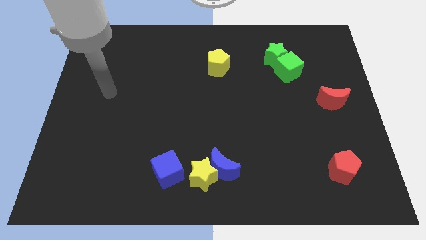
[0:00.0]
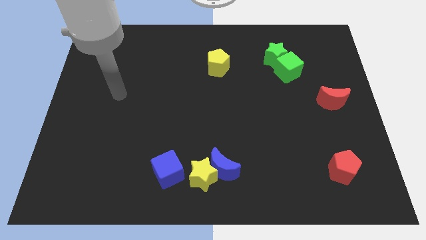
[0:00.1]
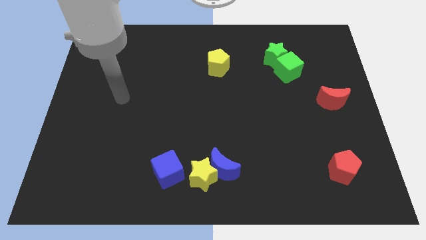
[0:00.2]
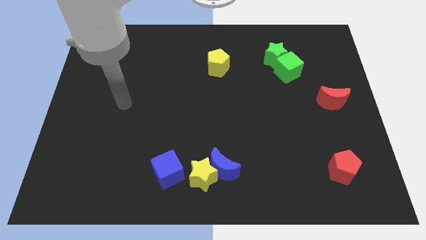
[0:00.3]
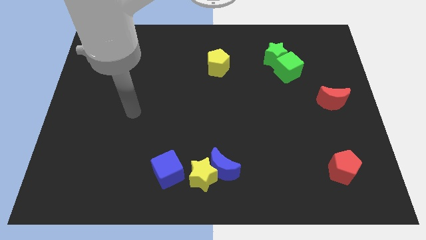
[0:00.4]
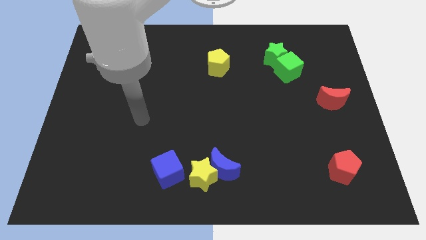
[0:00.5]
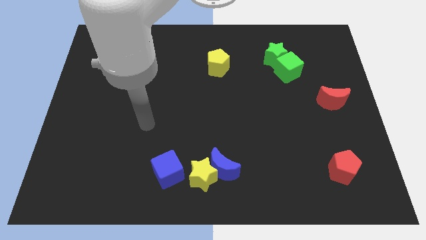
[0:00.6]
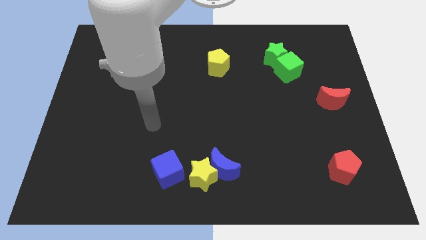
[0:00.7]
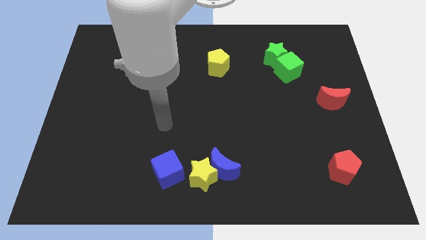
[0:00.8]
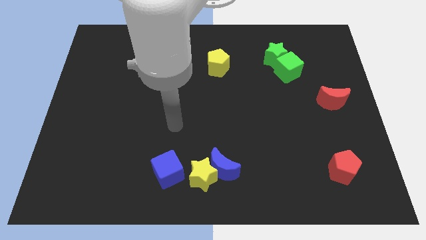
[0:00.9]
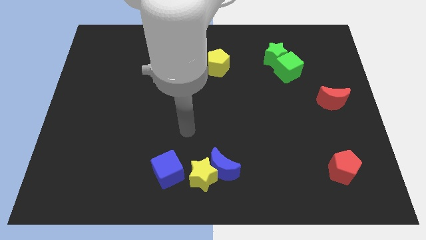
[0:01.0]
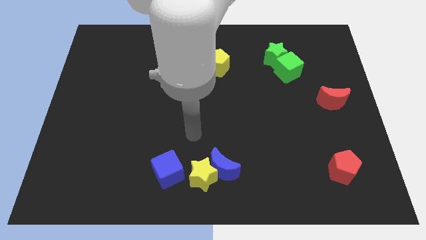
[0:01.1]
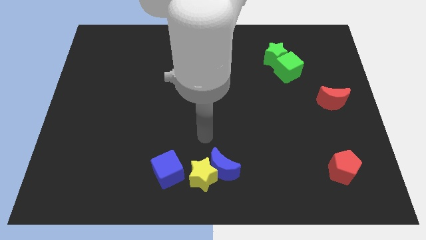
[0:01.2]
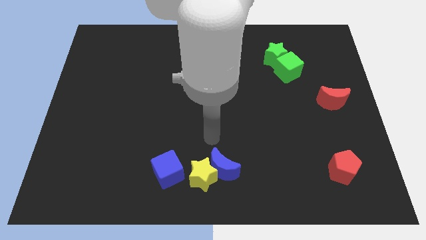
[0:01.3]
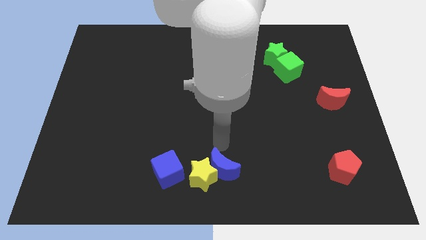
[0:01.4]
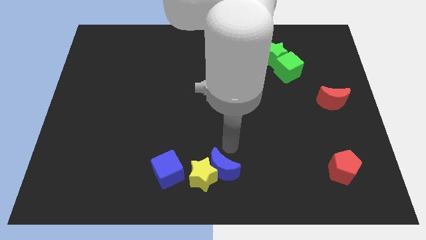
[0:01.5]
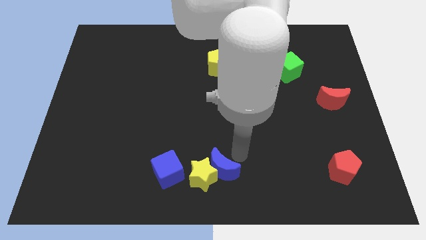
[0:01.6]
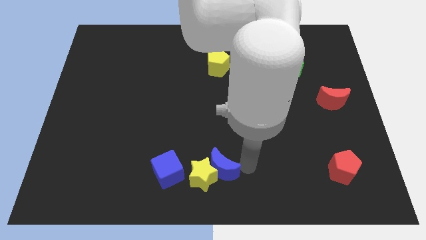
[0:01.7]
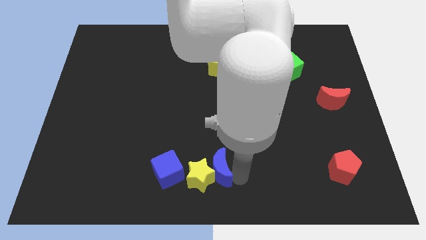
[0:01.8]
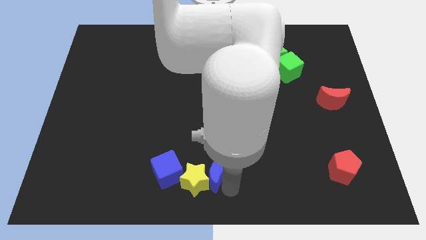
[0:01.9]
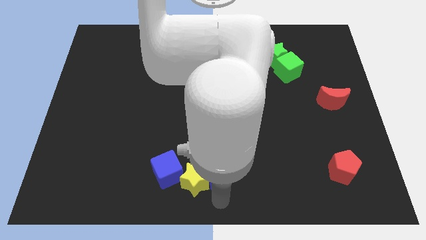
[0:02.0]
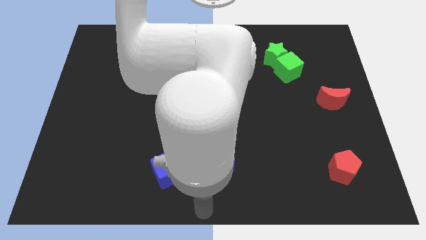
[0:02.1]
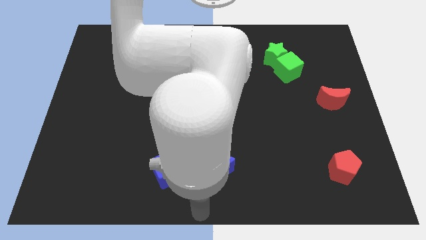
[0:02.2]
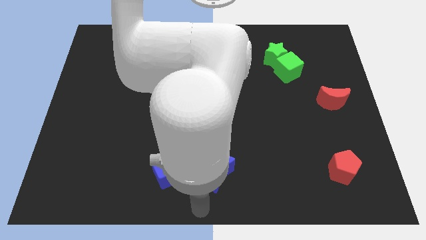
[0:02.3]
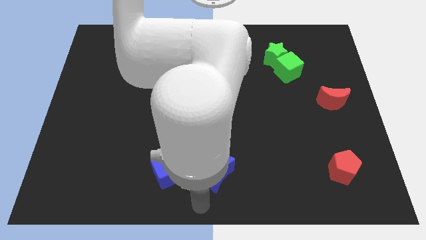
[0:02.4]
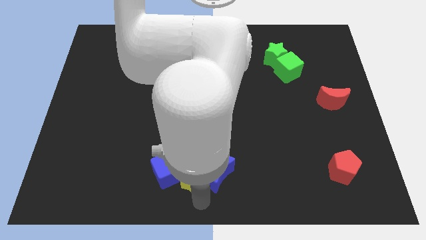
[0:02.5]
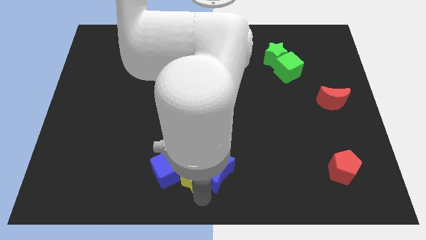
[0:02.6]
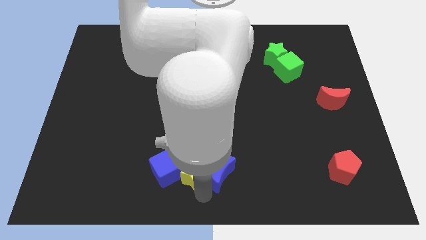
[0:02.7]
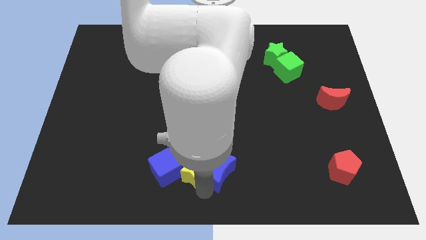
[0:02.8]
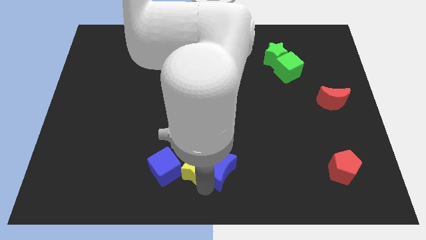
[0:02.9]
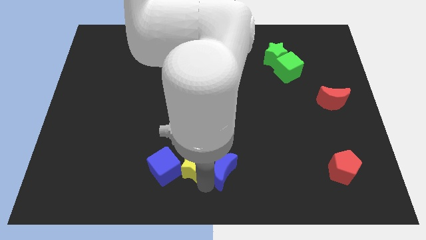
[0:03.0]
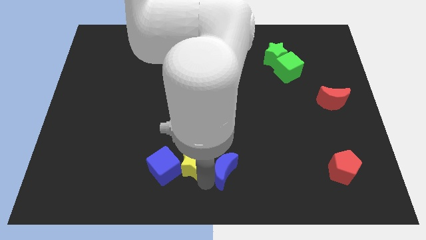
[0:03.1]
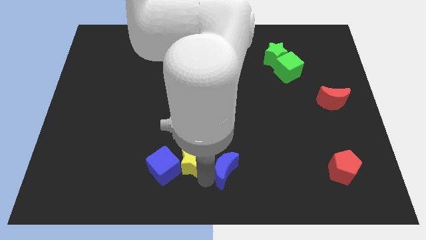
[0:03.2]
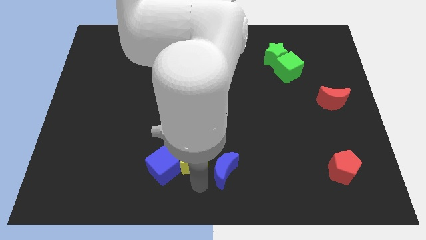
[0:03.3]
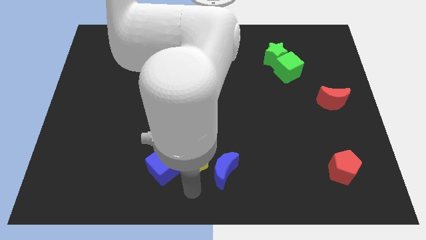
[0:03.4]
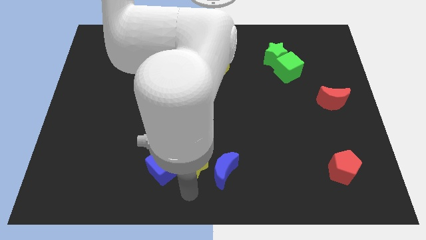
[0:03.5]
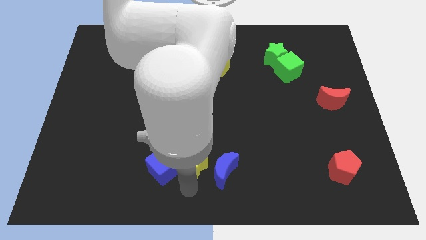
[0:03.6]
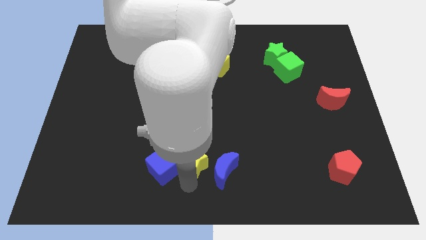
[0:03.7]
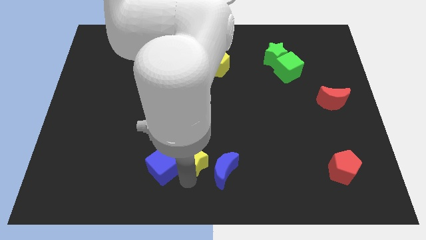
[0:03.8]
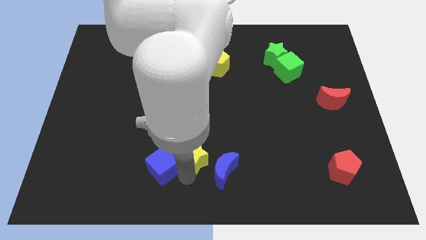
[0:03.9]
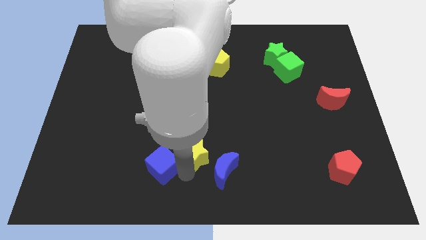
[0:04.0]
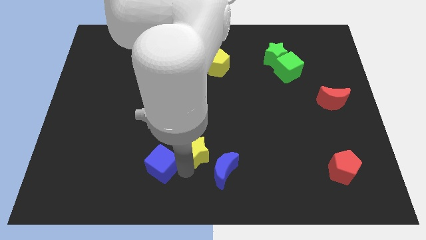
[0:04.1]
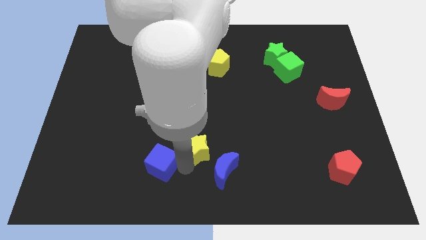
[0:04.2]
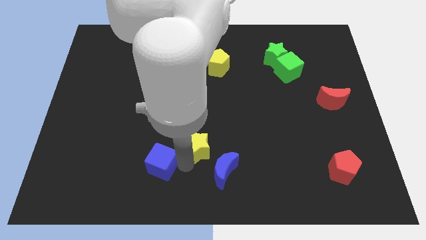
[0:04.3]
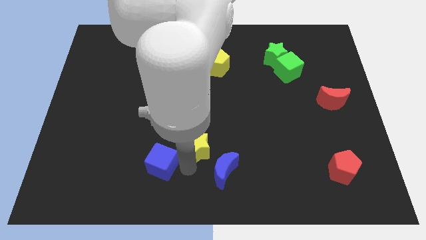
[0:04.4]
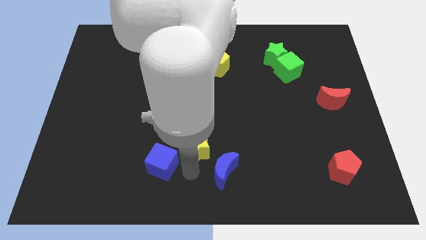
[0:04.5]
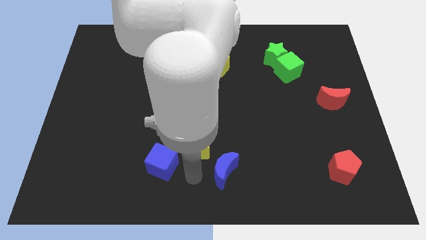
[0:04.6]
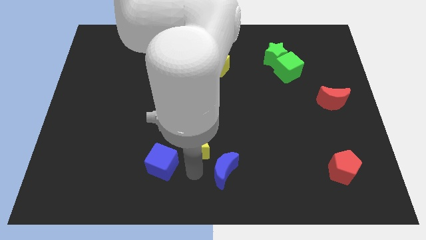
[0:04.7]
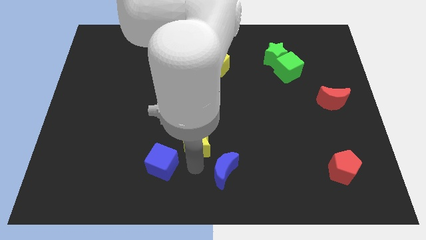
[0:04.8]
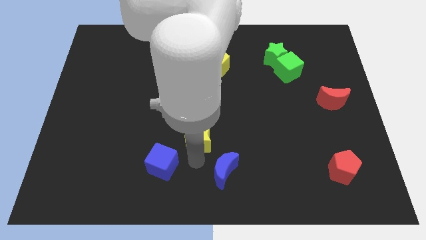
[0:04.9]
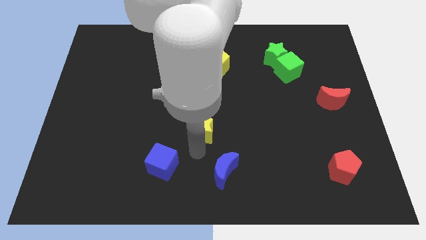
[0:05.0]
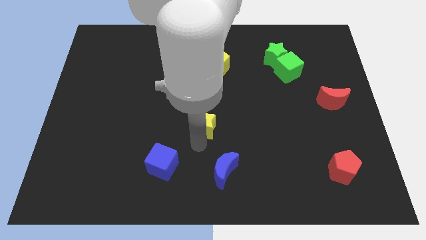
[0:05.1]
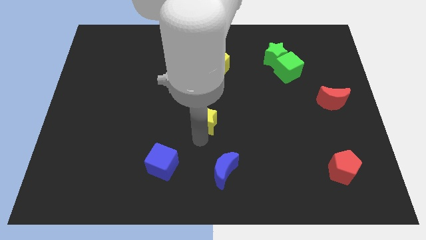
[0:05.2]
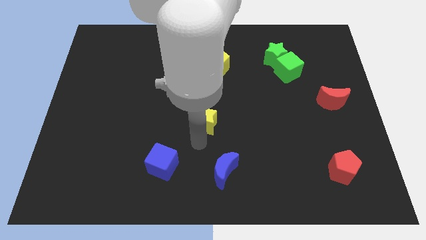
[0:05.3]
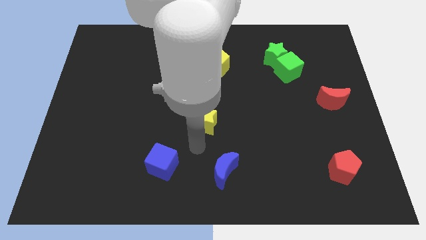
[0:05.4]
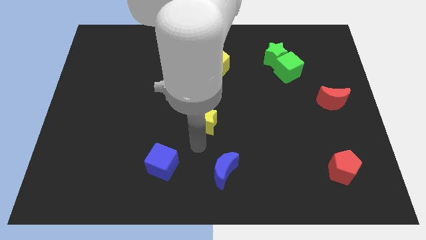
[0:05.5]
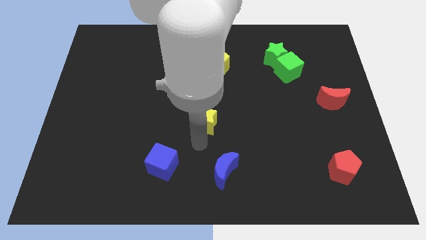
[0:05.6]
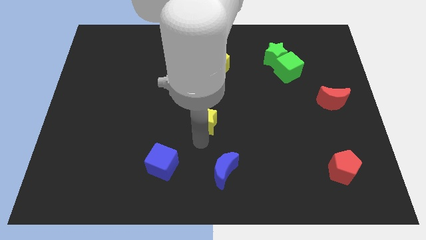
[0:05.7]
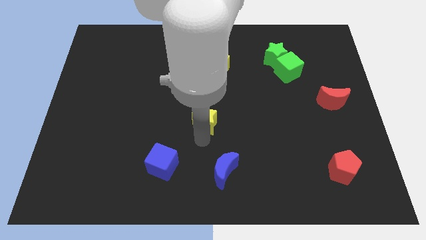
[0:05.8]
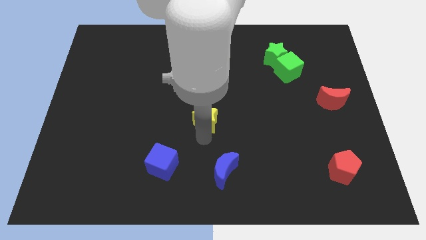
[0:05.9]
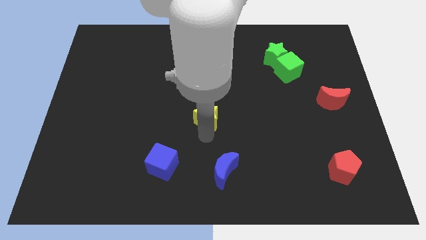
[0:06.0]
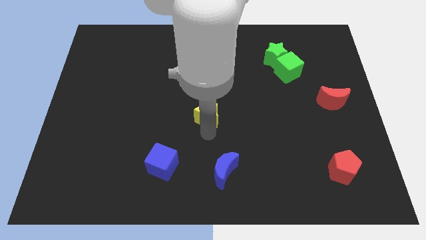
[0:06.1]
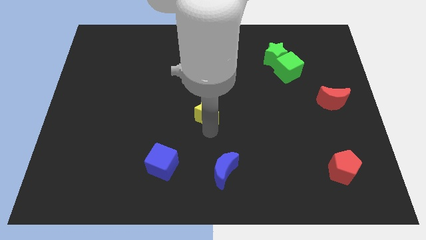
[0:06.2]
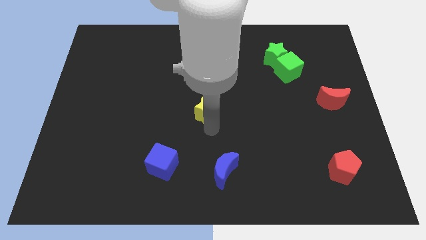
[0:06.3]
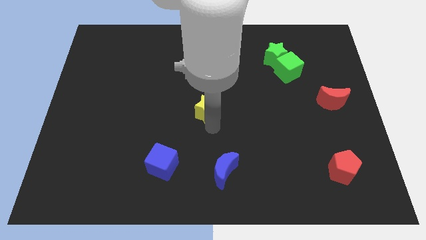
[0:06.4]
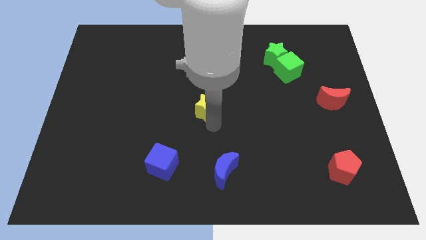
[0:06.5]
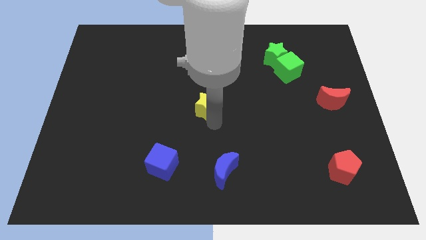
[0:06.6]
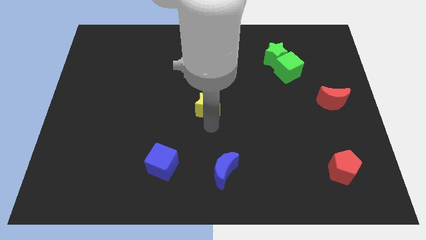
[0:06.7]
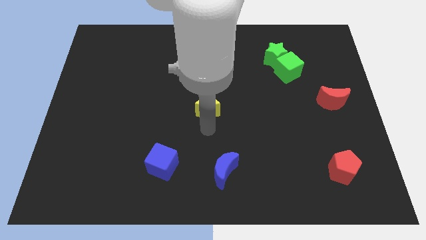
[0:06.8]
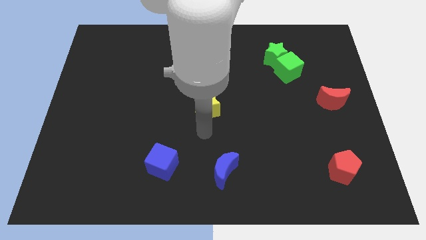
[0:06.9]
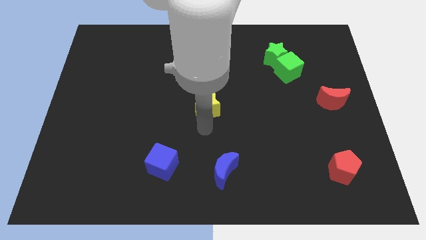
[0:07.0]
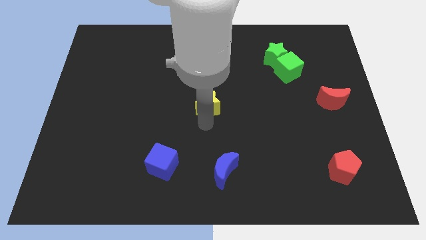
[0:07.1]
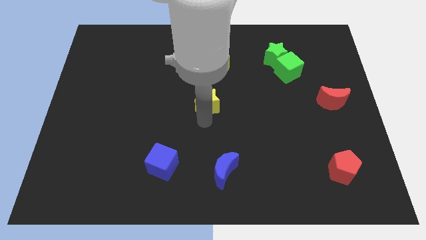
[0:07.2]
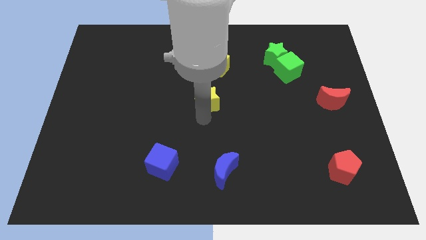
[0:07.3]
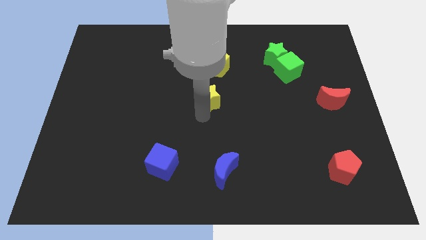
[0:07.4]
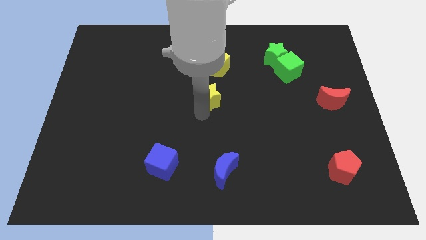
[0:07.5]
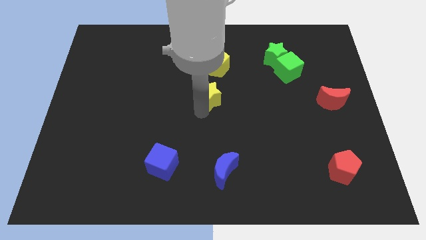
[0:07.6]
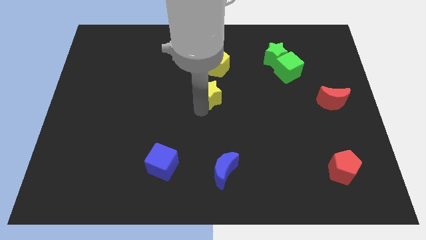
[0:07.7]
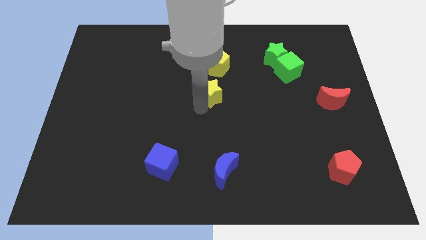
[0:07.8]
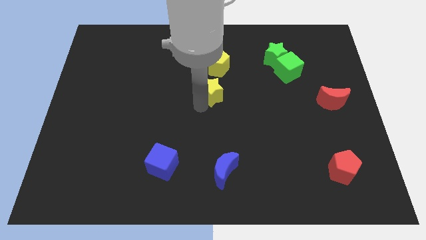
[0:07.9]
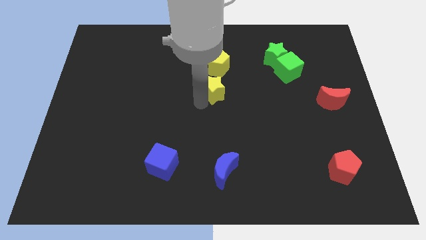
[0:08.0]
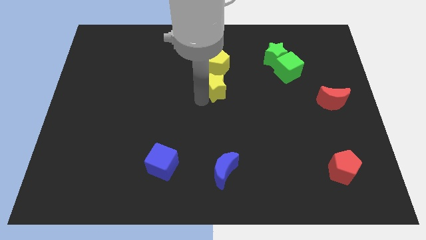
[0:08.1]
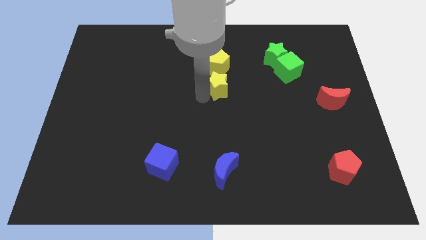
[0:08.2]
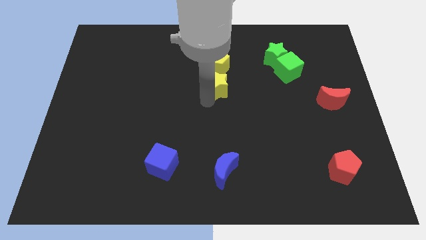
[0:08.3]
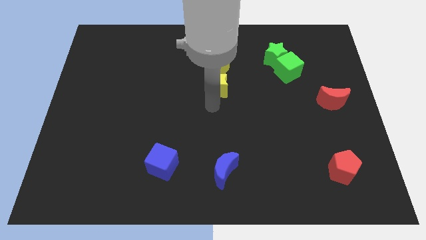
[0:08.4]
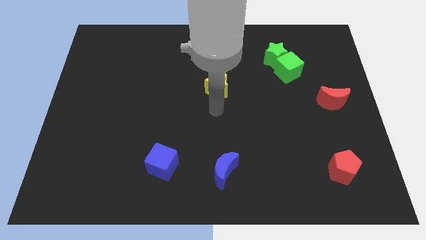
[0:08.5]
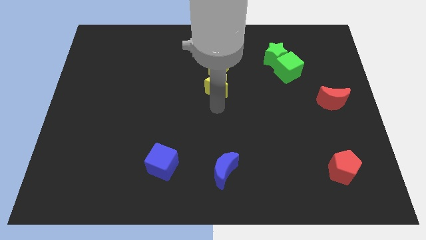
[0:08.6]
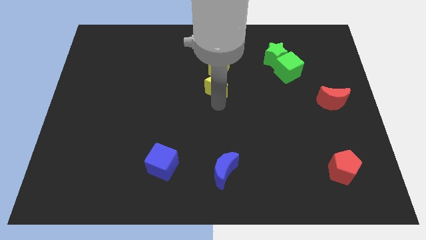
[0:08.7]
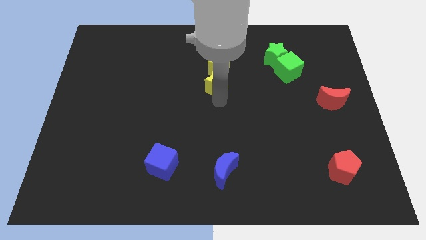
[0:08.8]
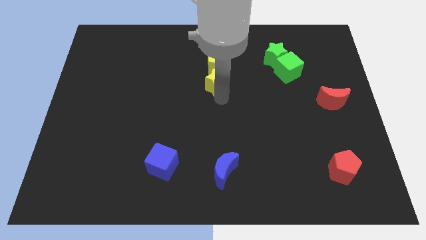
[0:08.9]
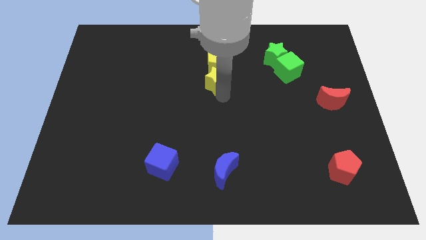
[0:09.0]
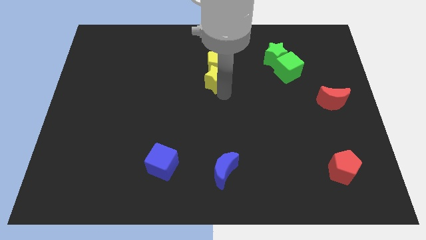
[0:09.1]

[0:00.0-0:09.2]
put the yellow star close to the yellow pentagon
